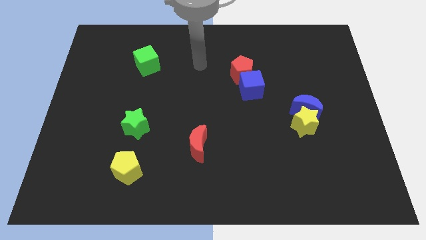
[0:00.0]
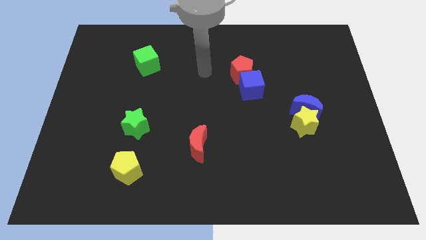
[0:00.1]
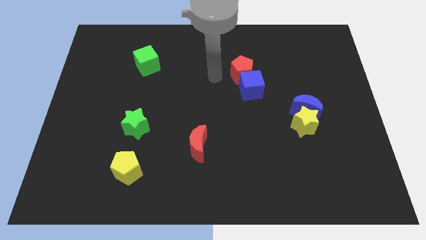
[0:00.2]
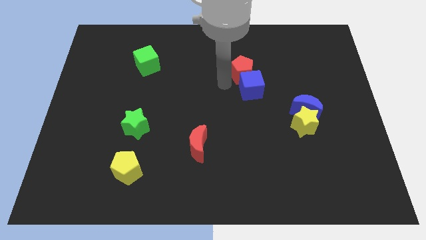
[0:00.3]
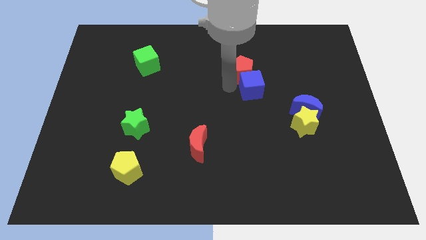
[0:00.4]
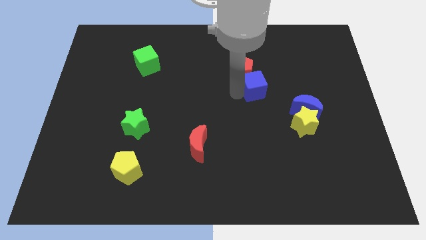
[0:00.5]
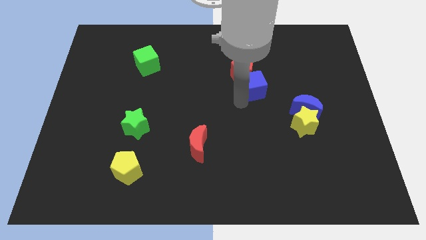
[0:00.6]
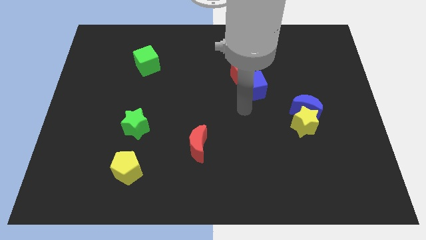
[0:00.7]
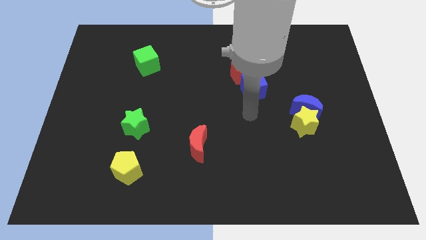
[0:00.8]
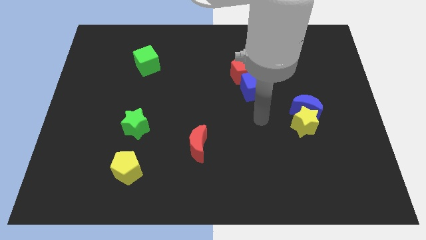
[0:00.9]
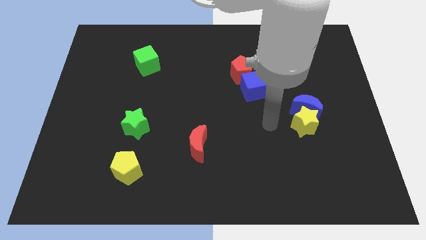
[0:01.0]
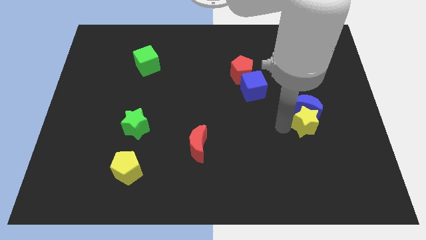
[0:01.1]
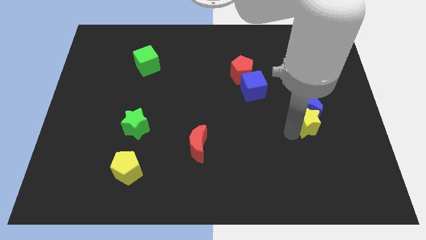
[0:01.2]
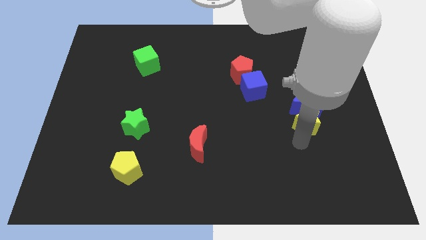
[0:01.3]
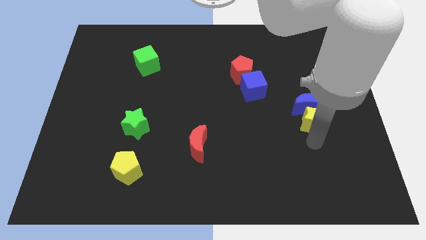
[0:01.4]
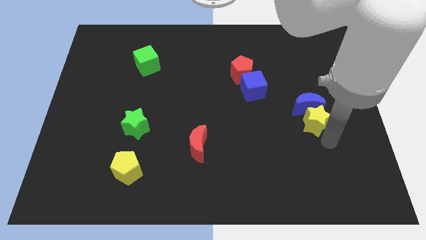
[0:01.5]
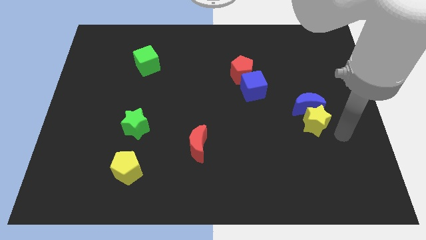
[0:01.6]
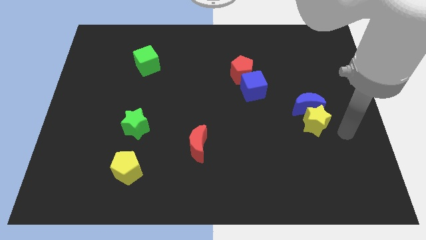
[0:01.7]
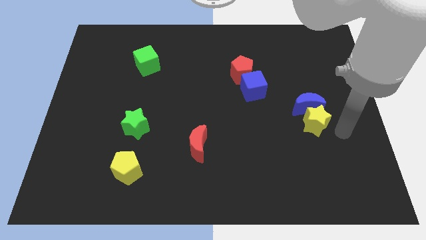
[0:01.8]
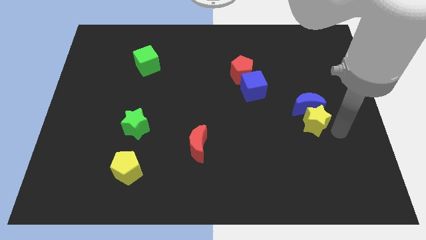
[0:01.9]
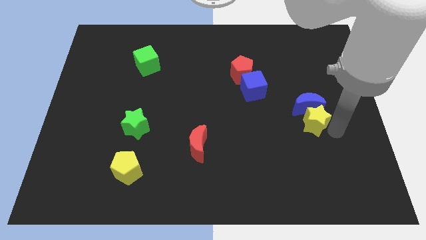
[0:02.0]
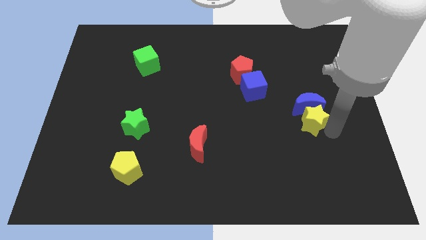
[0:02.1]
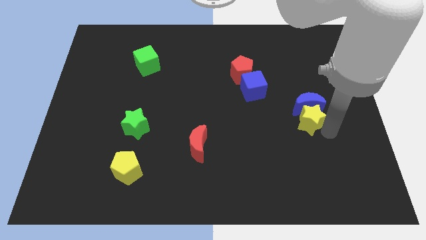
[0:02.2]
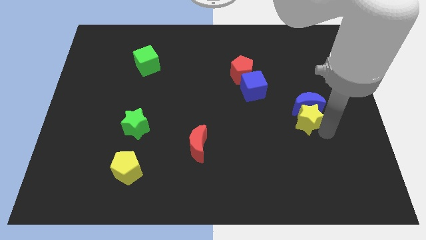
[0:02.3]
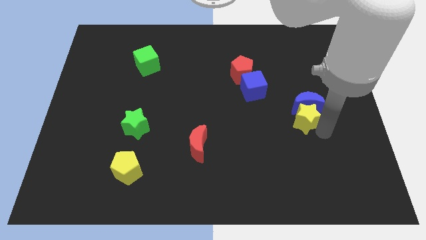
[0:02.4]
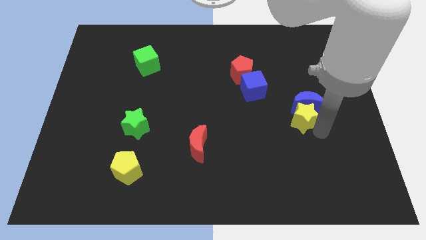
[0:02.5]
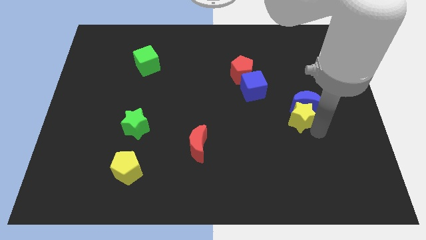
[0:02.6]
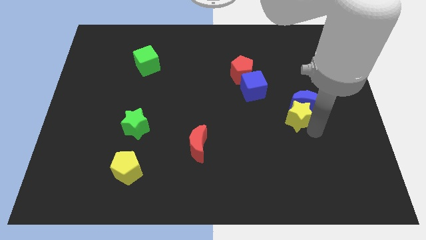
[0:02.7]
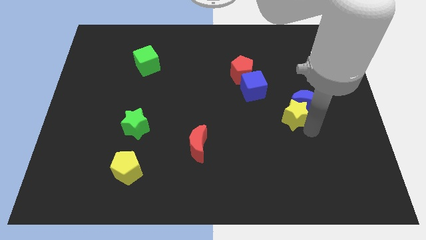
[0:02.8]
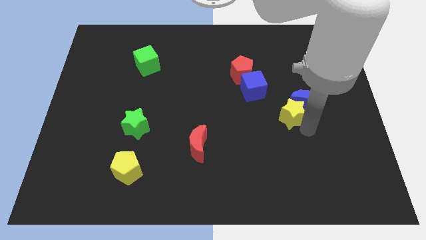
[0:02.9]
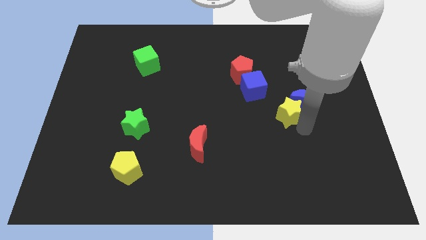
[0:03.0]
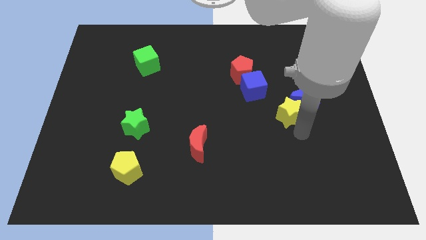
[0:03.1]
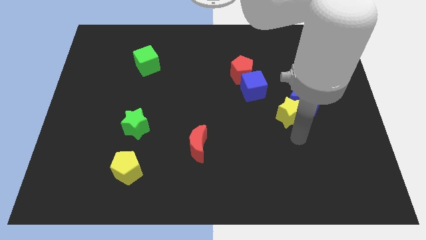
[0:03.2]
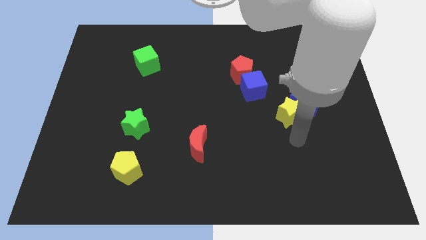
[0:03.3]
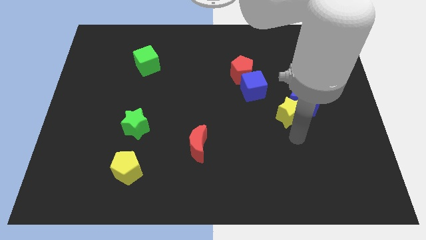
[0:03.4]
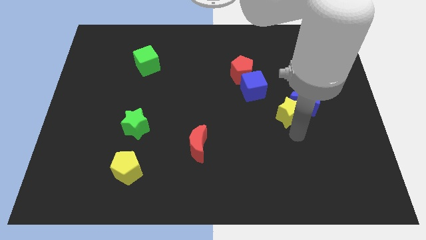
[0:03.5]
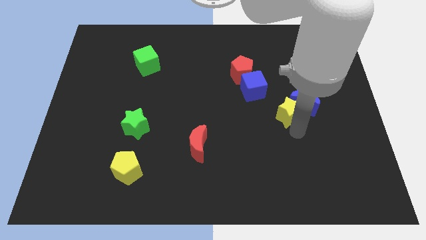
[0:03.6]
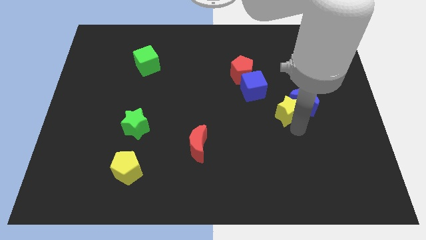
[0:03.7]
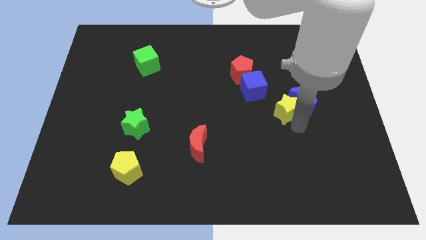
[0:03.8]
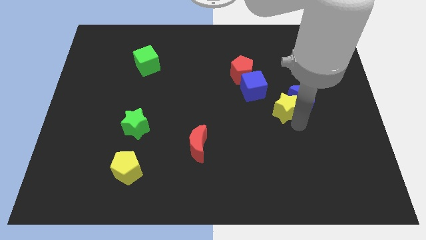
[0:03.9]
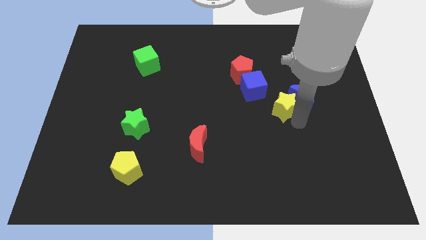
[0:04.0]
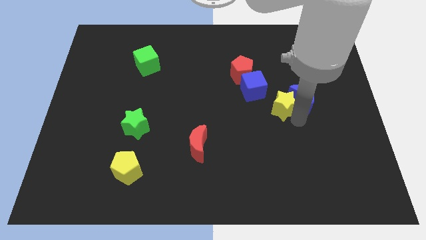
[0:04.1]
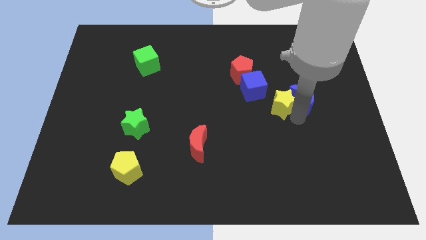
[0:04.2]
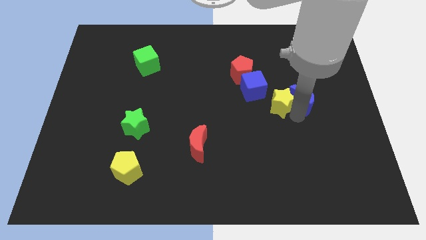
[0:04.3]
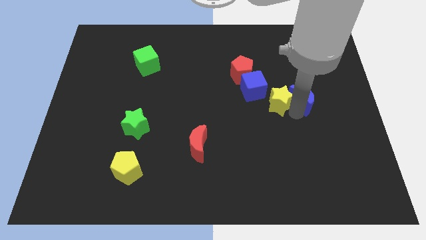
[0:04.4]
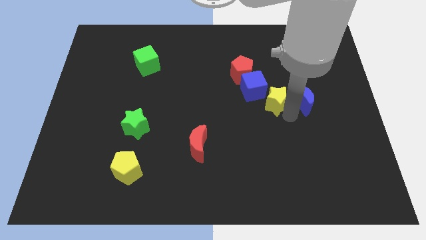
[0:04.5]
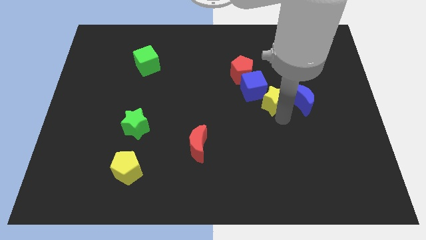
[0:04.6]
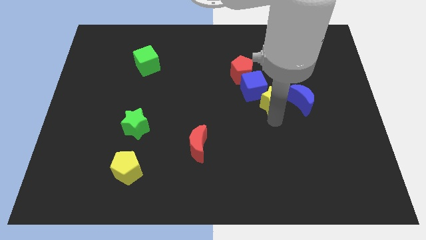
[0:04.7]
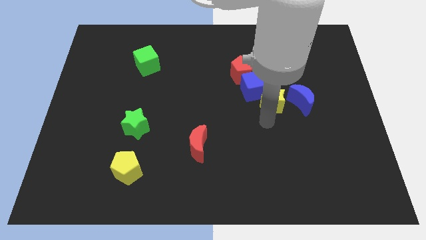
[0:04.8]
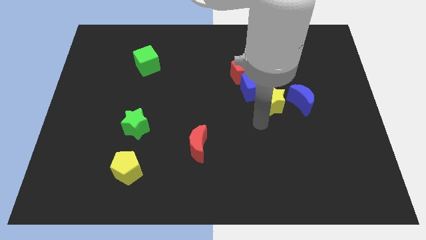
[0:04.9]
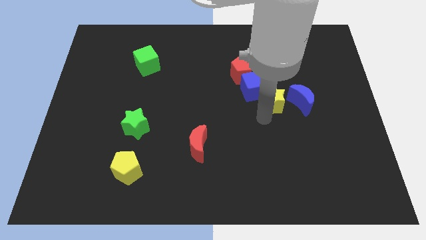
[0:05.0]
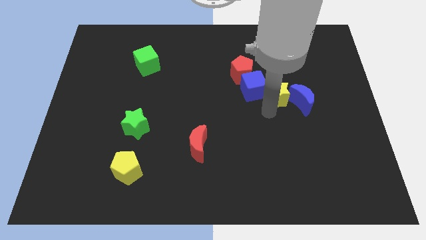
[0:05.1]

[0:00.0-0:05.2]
push the yellow star slightly upwards

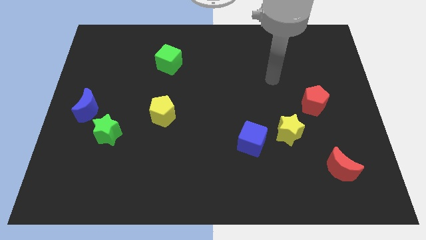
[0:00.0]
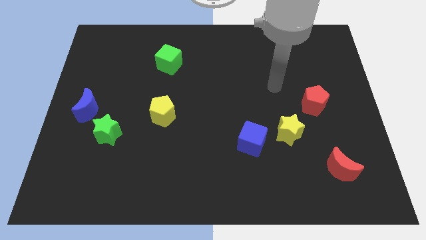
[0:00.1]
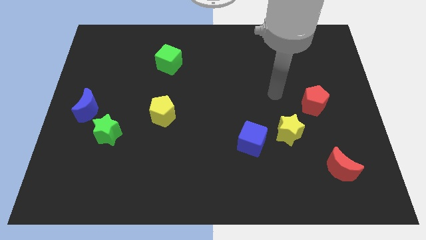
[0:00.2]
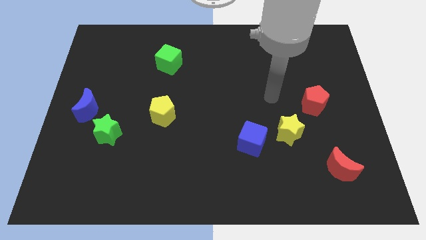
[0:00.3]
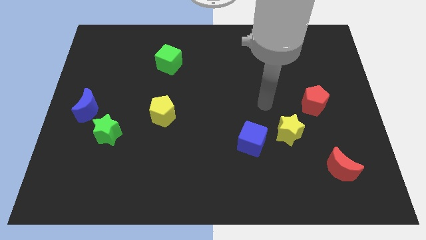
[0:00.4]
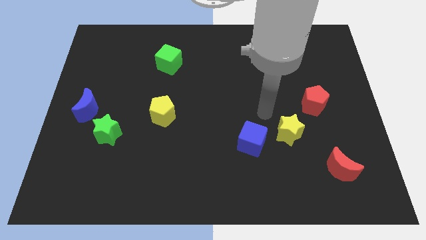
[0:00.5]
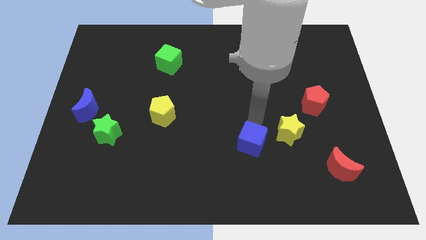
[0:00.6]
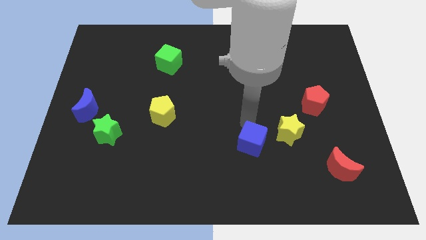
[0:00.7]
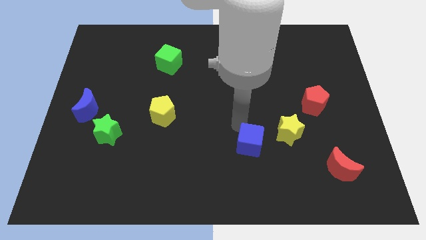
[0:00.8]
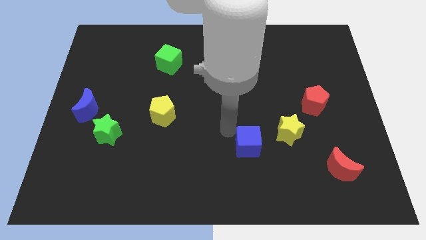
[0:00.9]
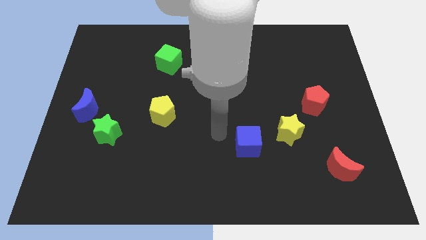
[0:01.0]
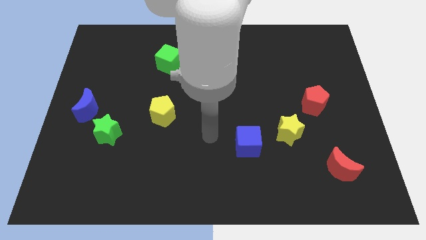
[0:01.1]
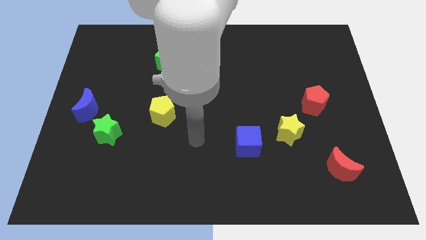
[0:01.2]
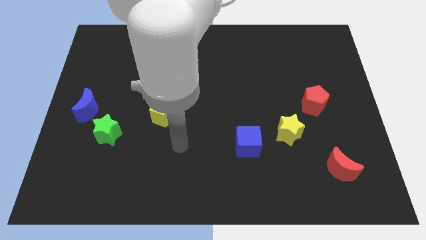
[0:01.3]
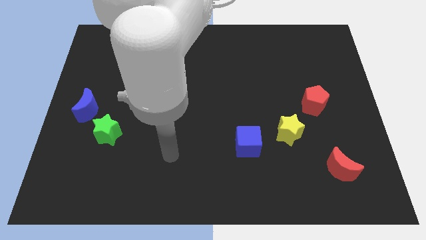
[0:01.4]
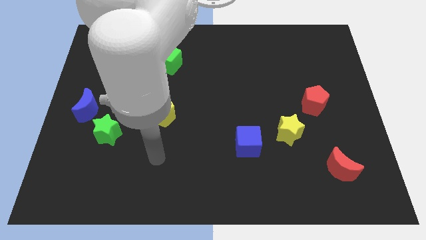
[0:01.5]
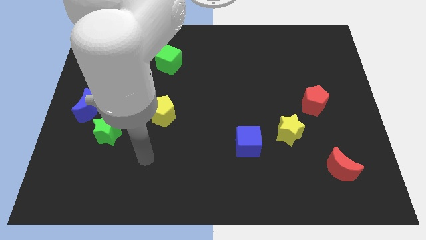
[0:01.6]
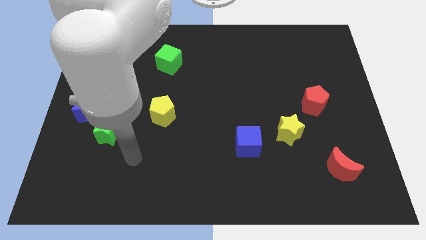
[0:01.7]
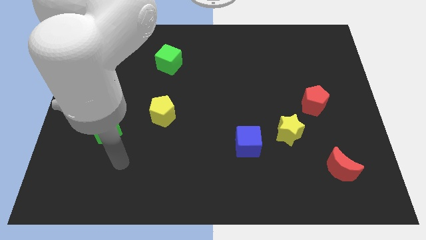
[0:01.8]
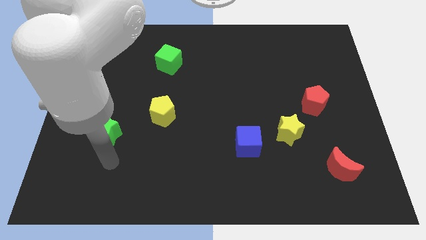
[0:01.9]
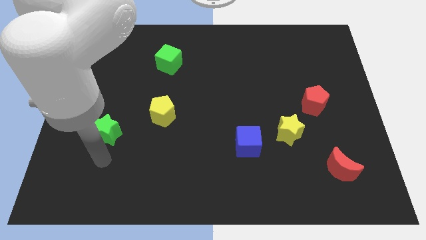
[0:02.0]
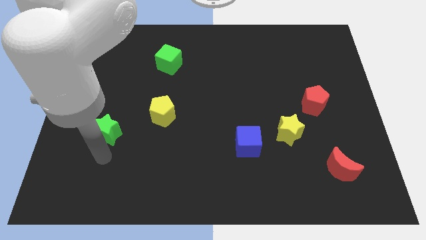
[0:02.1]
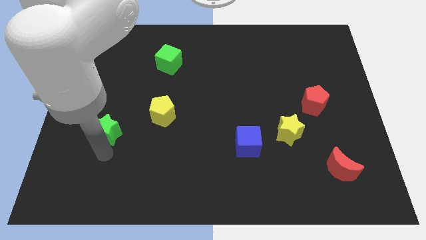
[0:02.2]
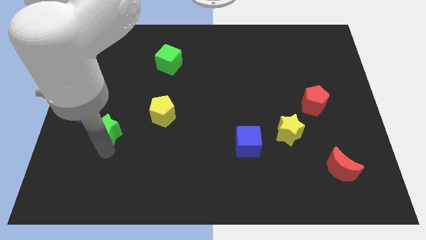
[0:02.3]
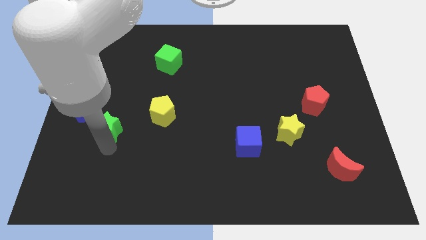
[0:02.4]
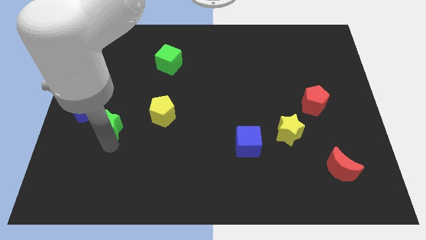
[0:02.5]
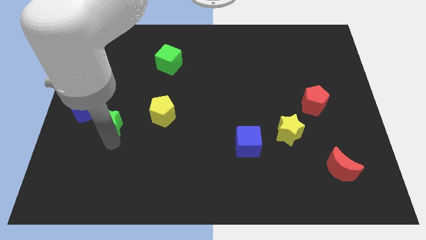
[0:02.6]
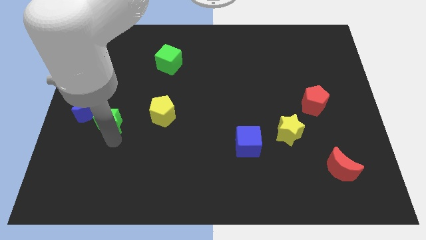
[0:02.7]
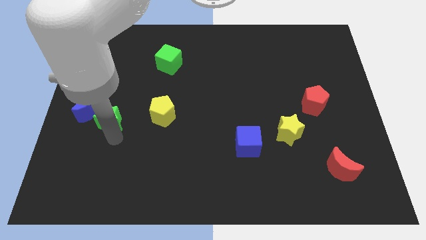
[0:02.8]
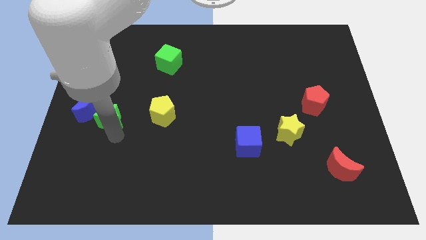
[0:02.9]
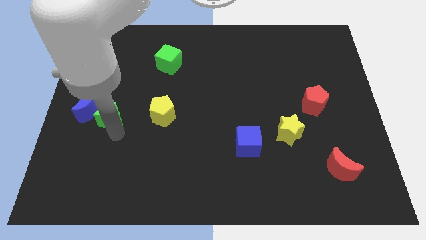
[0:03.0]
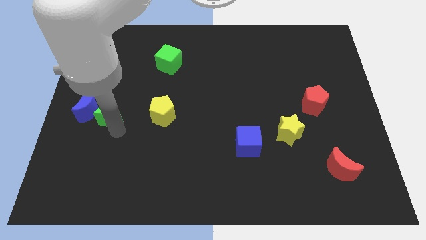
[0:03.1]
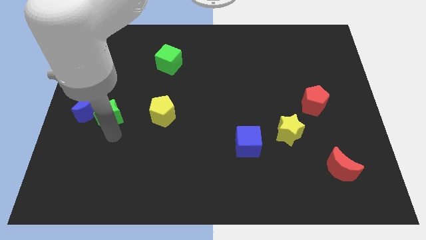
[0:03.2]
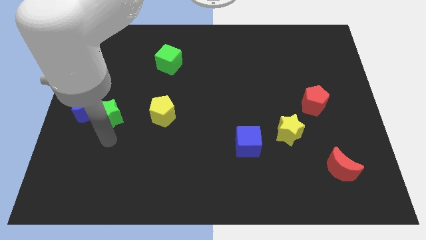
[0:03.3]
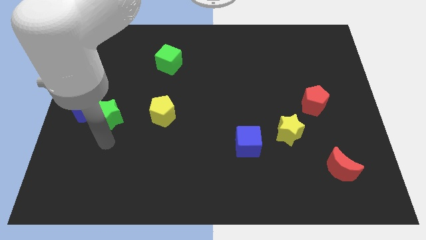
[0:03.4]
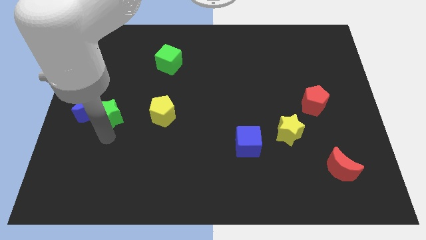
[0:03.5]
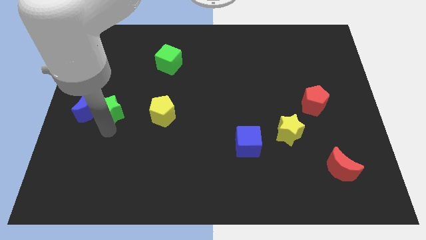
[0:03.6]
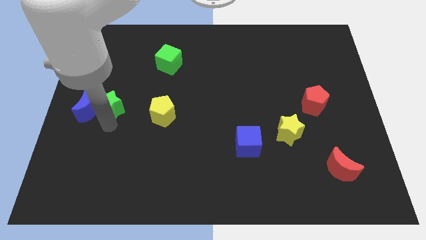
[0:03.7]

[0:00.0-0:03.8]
move the green star up slightly
